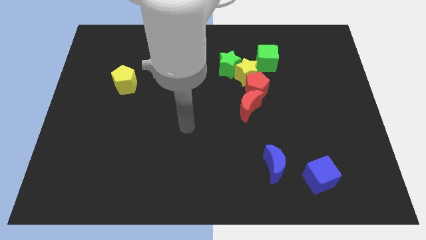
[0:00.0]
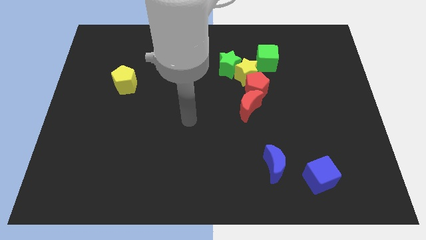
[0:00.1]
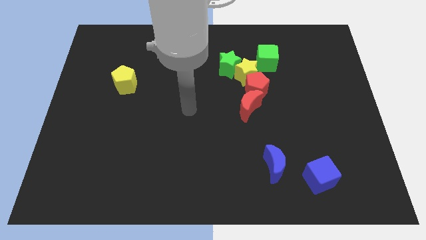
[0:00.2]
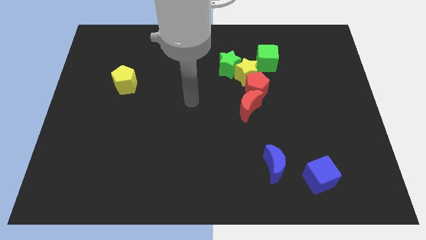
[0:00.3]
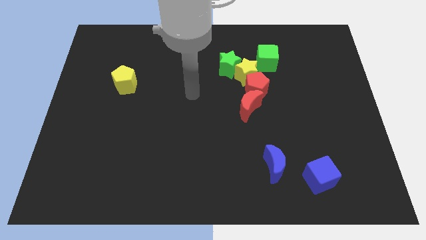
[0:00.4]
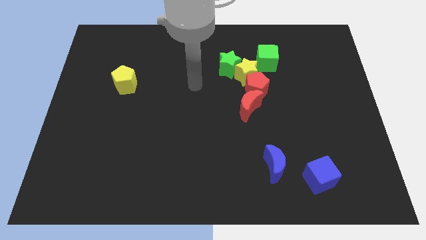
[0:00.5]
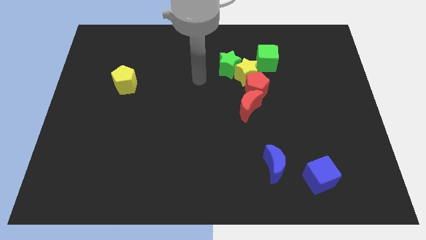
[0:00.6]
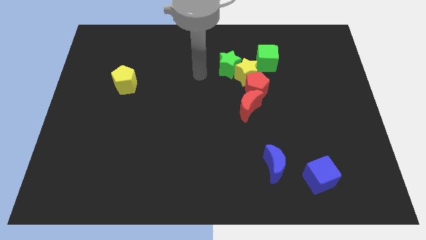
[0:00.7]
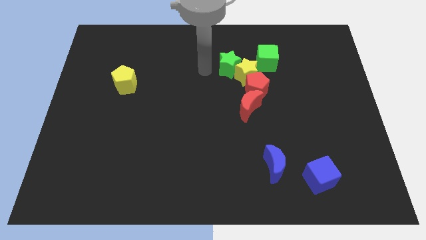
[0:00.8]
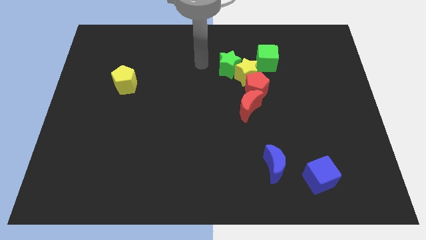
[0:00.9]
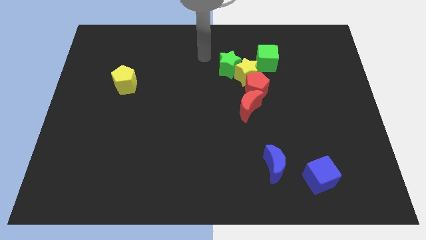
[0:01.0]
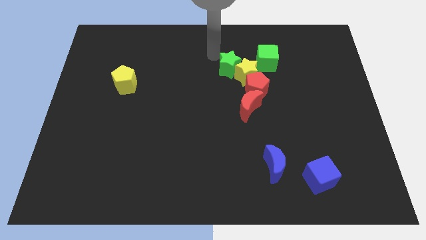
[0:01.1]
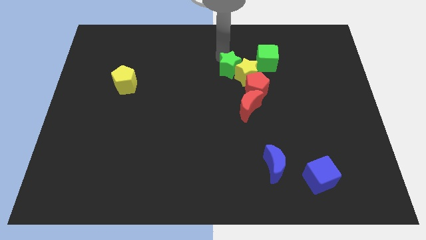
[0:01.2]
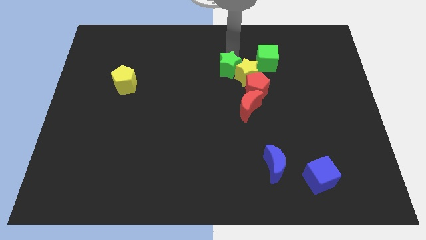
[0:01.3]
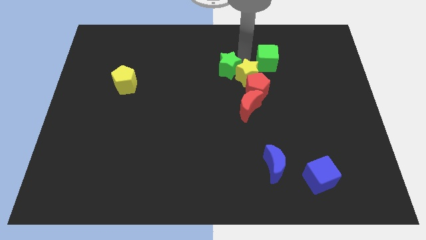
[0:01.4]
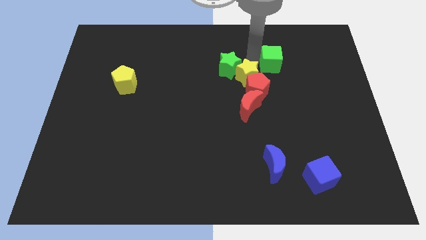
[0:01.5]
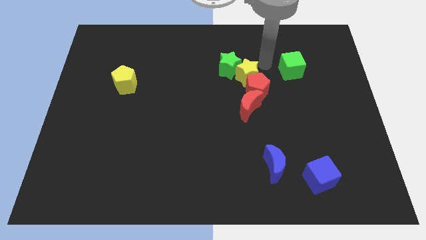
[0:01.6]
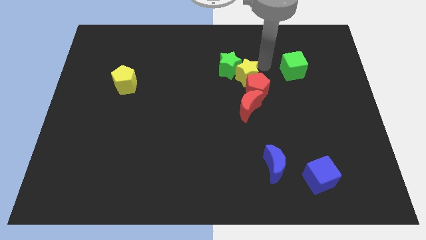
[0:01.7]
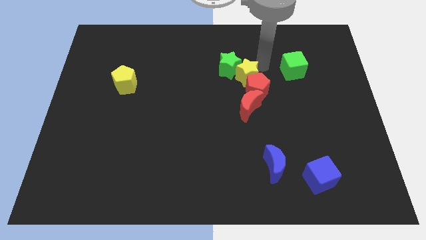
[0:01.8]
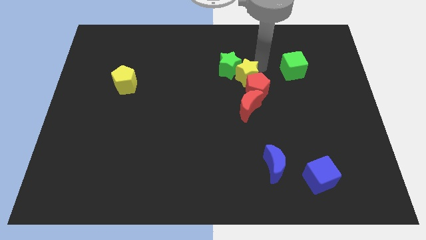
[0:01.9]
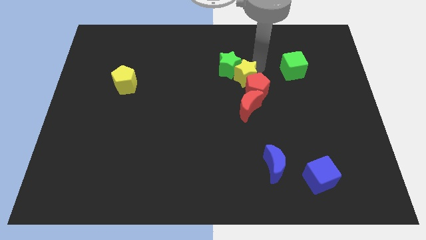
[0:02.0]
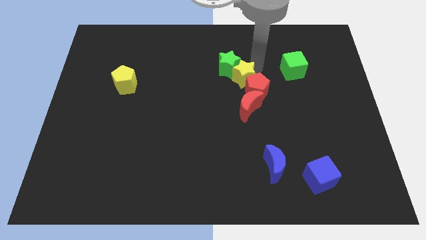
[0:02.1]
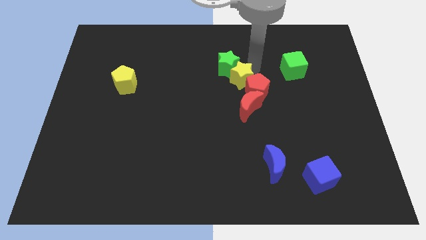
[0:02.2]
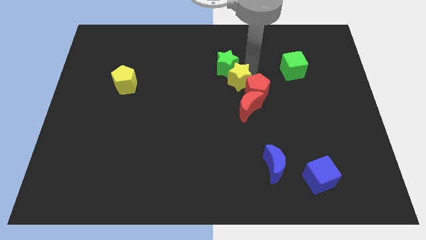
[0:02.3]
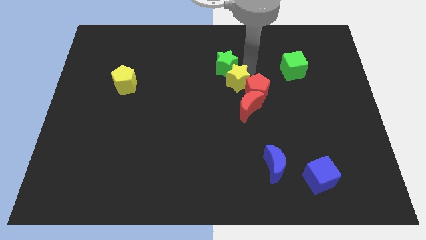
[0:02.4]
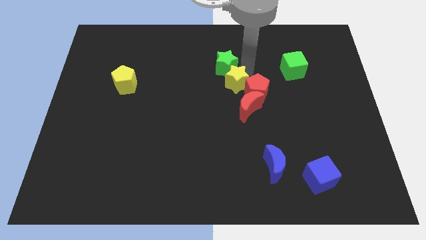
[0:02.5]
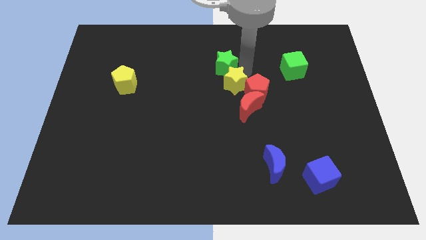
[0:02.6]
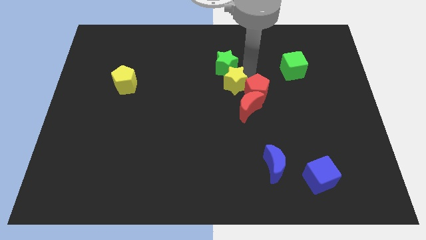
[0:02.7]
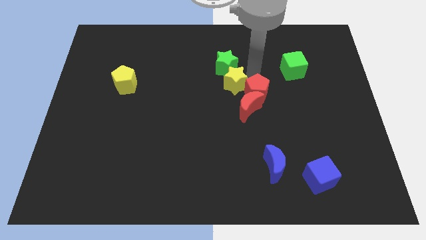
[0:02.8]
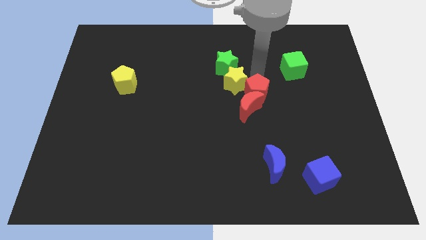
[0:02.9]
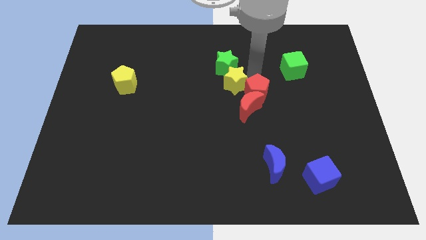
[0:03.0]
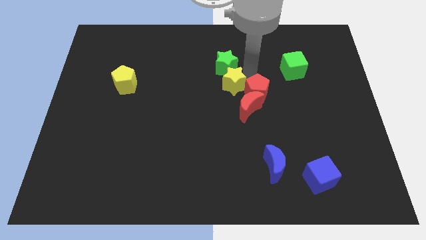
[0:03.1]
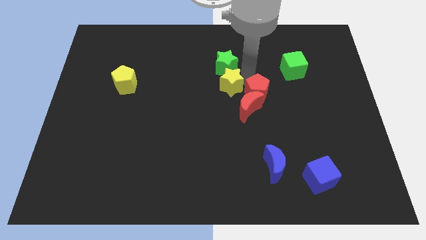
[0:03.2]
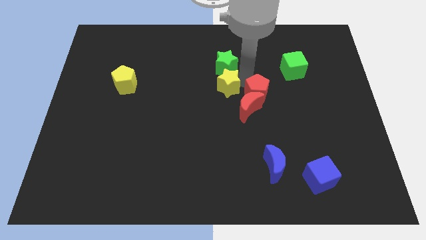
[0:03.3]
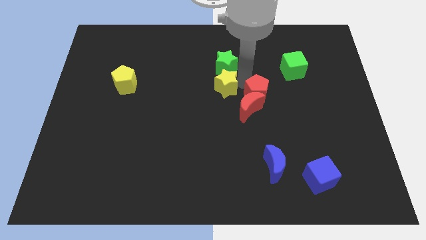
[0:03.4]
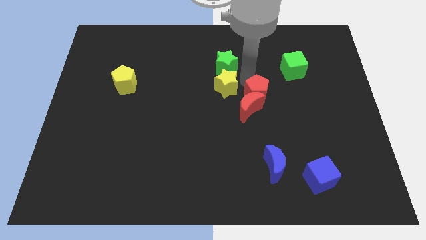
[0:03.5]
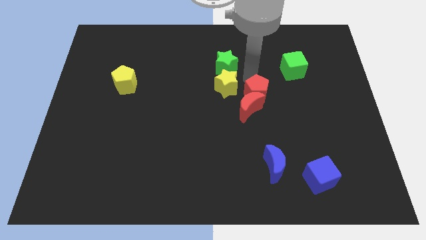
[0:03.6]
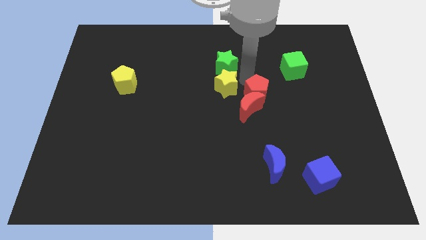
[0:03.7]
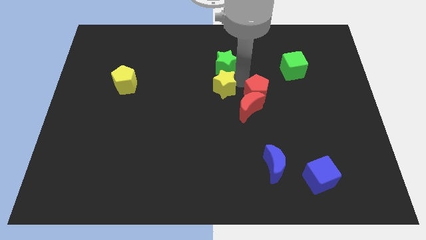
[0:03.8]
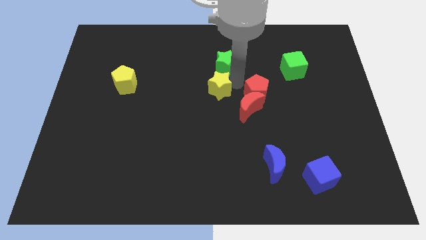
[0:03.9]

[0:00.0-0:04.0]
separate the yellow star from the green star, red pentagon, and green cube

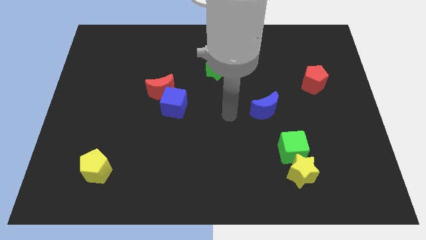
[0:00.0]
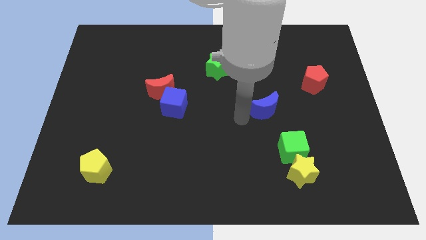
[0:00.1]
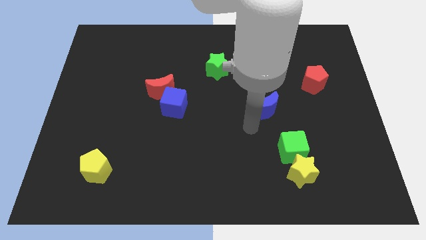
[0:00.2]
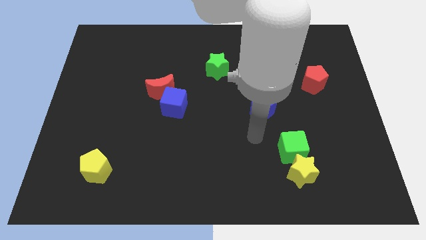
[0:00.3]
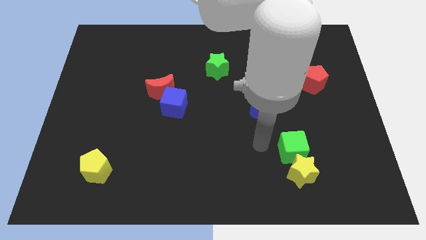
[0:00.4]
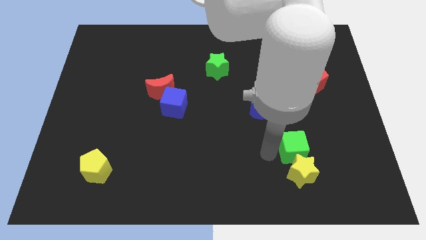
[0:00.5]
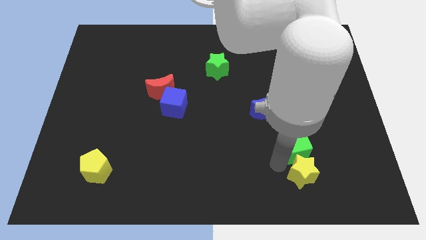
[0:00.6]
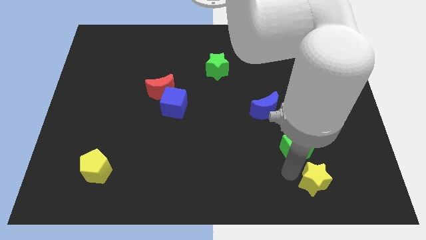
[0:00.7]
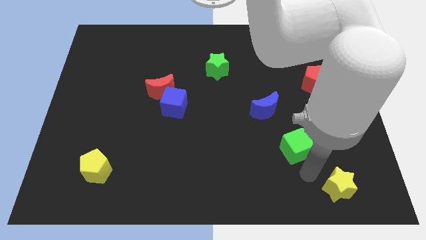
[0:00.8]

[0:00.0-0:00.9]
pull the green cube apart from the yellow star

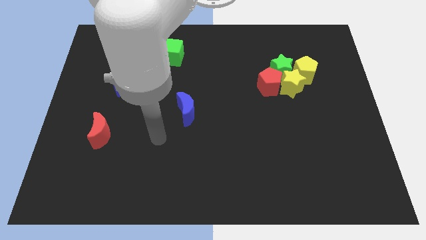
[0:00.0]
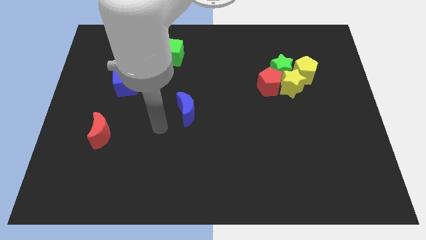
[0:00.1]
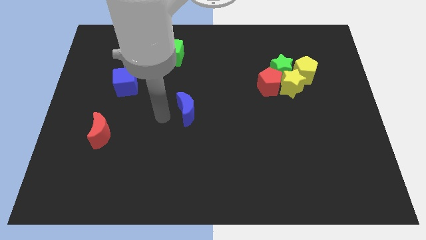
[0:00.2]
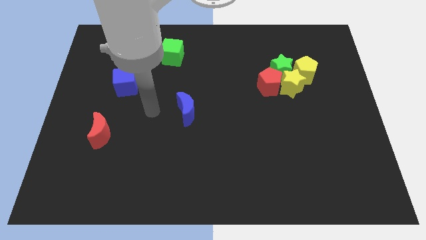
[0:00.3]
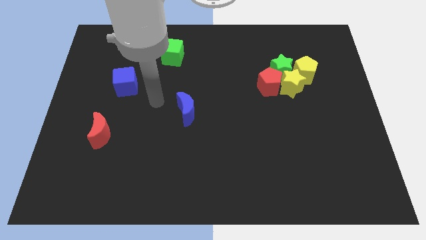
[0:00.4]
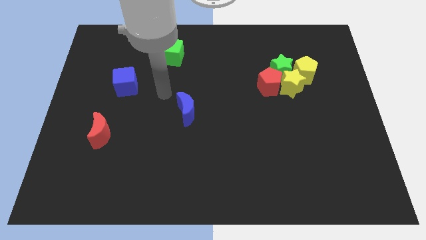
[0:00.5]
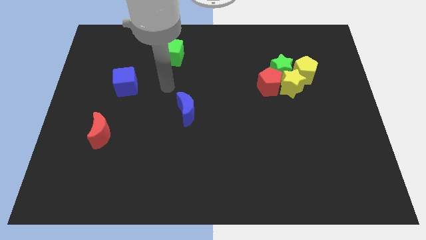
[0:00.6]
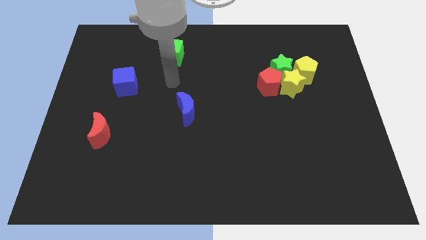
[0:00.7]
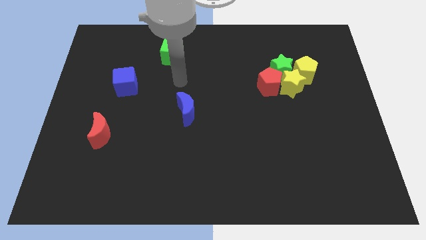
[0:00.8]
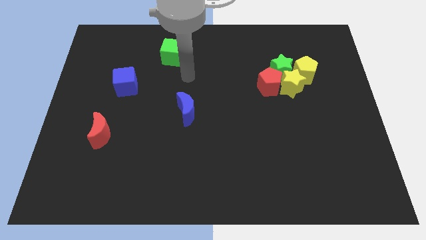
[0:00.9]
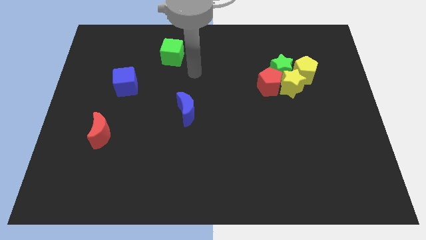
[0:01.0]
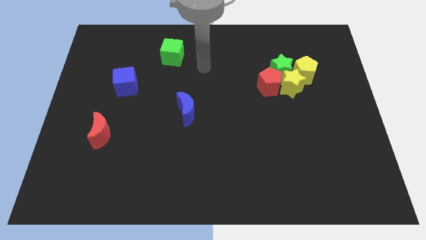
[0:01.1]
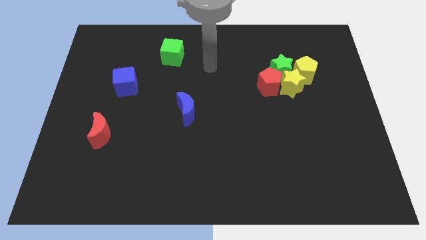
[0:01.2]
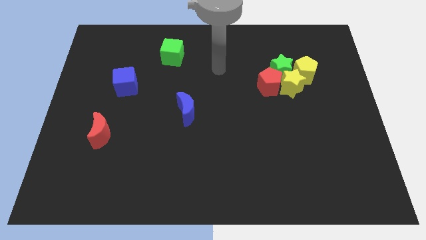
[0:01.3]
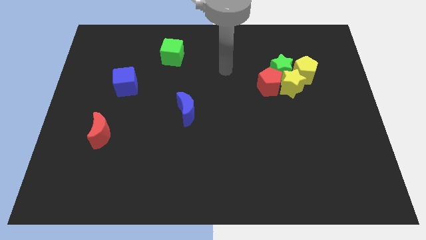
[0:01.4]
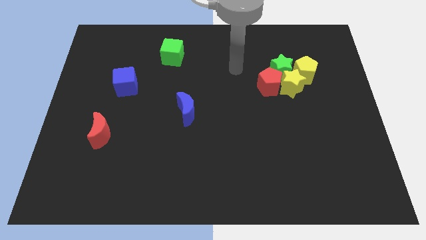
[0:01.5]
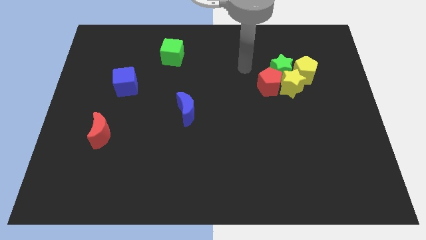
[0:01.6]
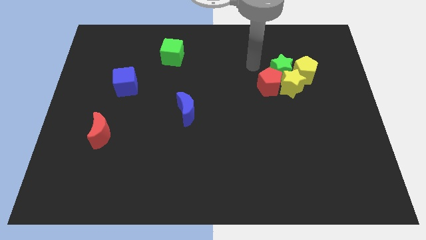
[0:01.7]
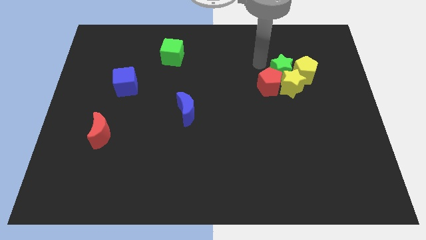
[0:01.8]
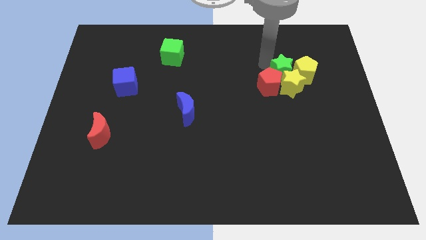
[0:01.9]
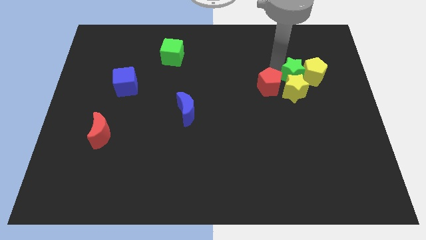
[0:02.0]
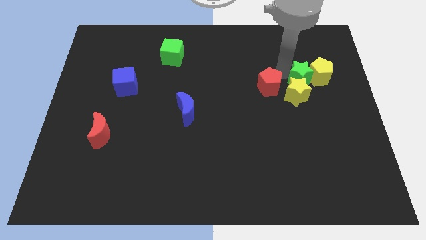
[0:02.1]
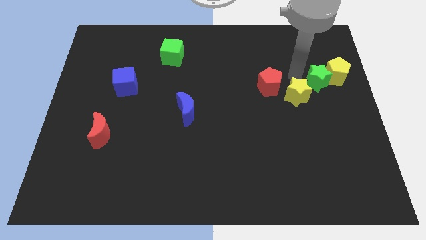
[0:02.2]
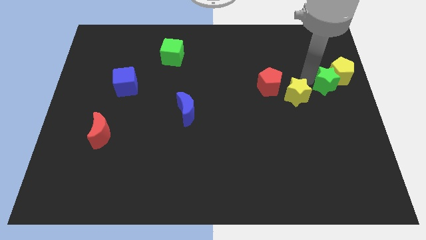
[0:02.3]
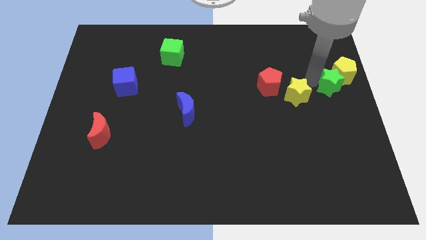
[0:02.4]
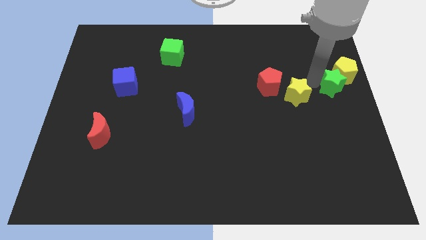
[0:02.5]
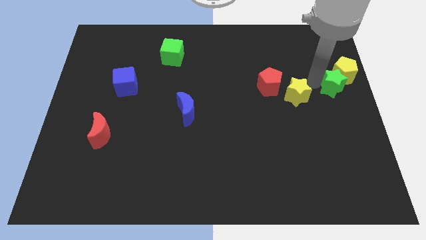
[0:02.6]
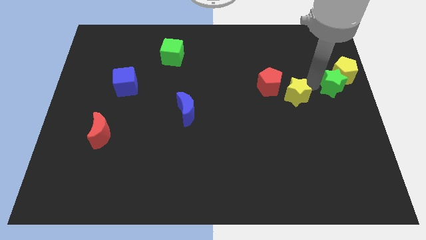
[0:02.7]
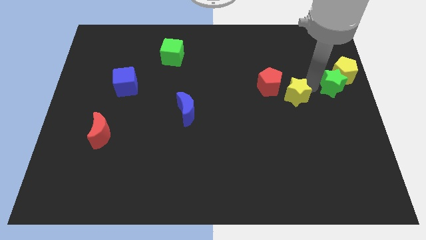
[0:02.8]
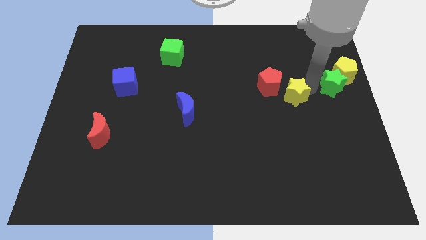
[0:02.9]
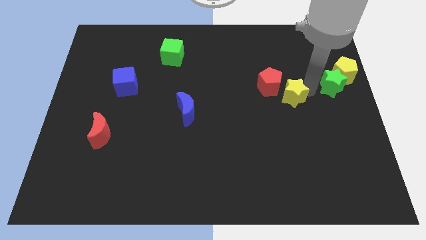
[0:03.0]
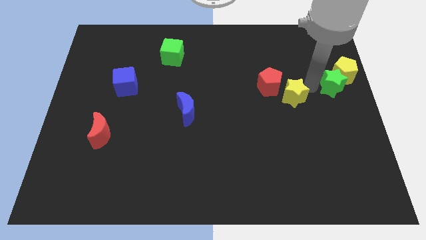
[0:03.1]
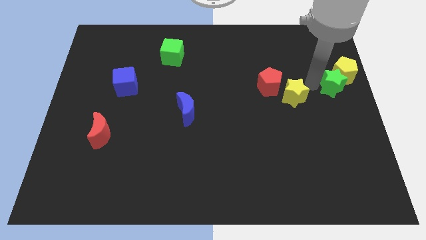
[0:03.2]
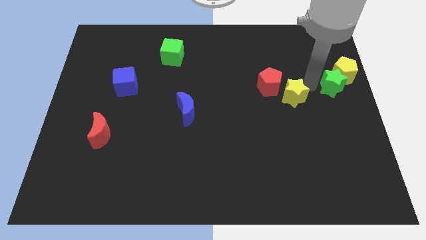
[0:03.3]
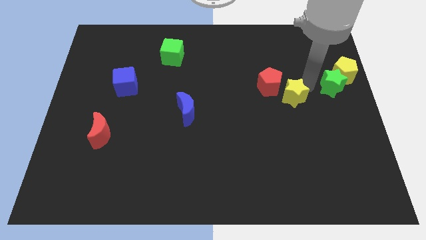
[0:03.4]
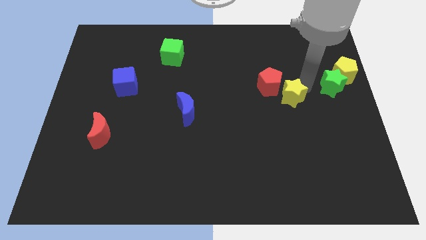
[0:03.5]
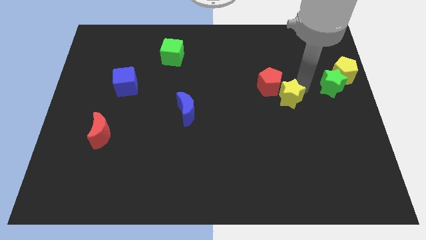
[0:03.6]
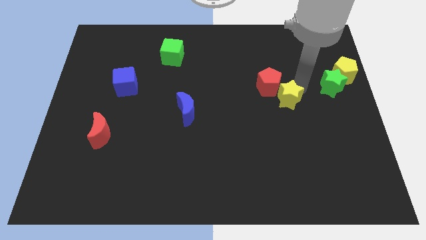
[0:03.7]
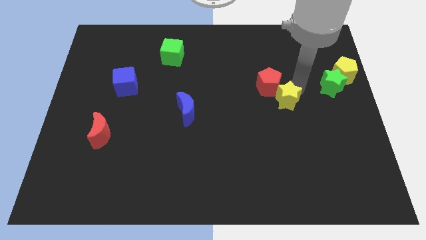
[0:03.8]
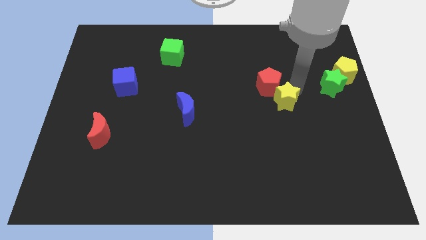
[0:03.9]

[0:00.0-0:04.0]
pull the yellow star apart from the red pentagon, green star, and yellow pentagon

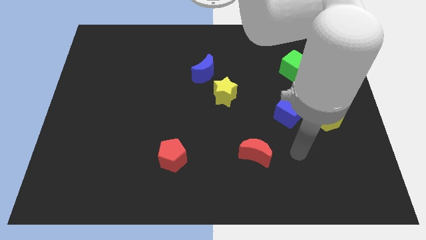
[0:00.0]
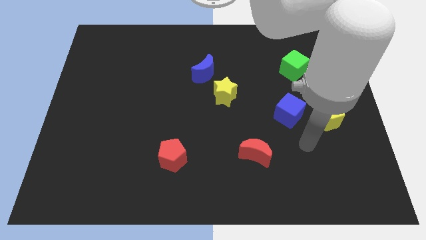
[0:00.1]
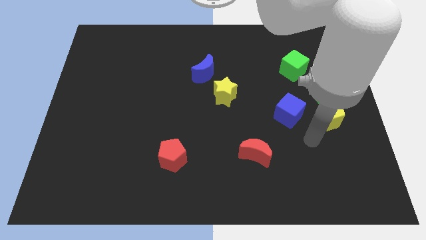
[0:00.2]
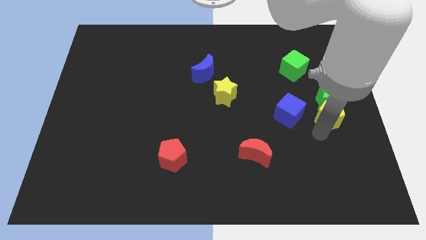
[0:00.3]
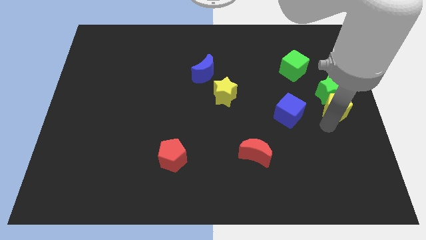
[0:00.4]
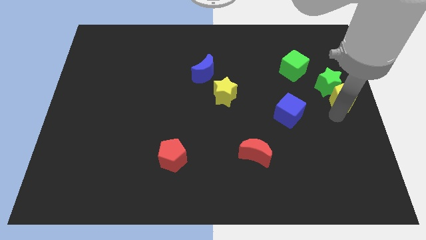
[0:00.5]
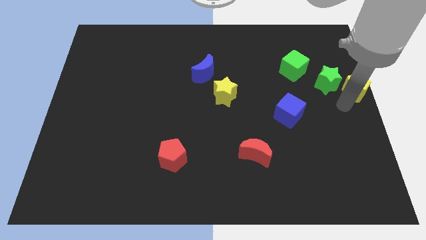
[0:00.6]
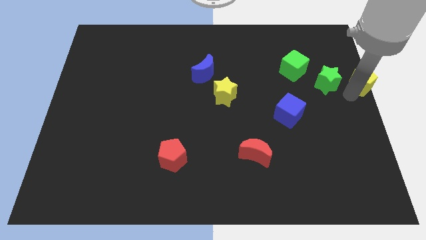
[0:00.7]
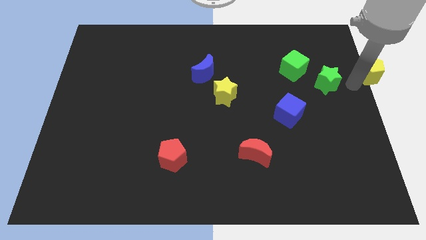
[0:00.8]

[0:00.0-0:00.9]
move the green star away from the yellow pentagon
